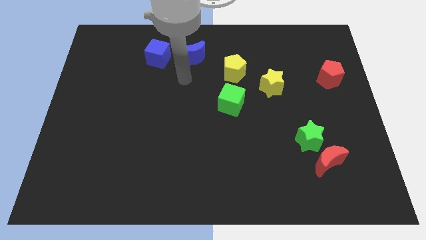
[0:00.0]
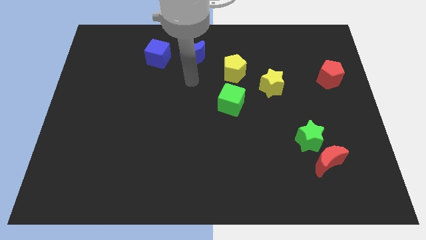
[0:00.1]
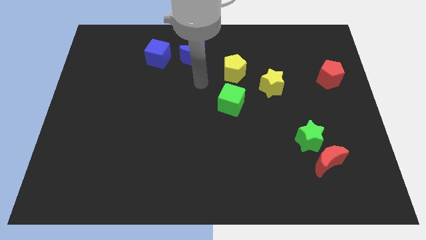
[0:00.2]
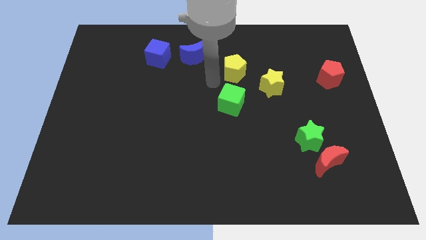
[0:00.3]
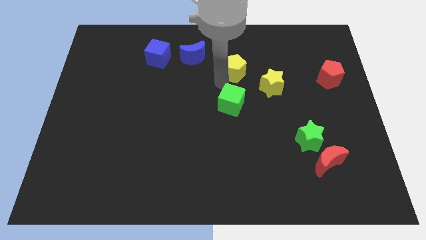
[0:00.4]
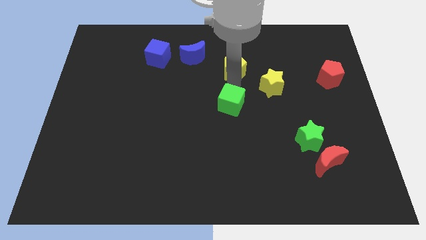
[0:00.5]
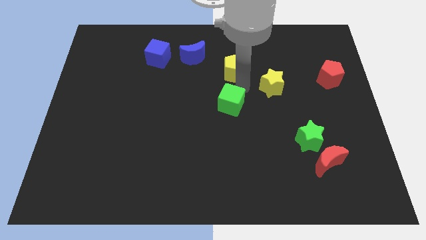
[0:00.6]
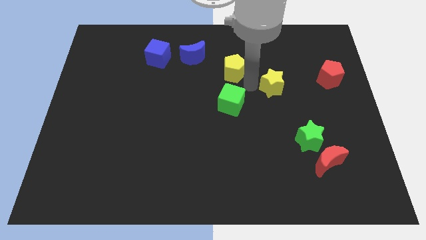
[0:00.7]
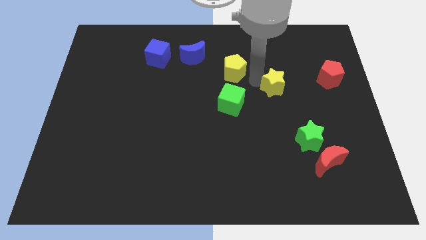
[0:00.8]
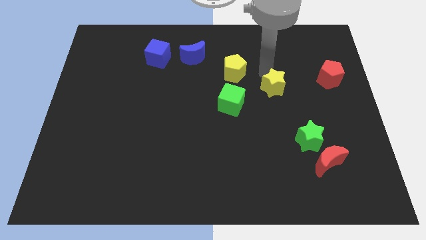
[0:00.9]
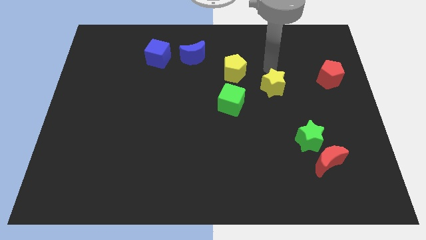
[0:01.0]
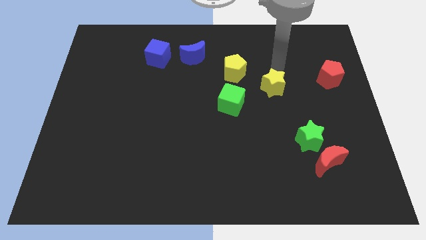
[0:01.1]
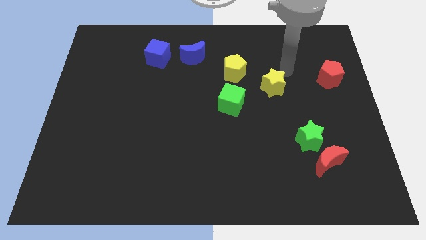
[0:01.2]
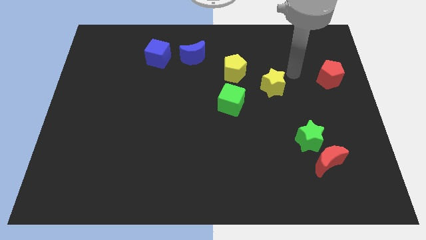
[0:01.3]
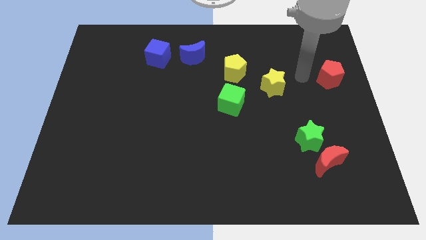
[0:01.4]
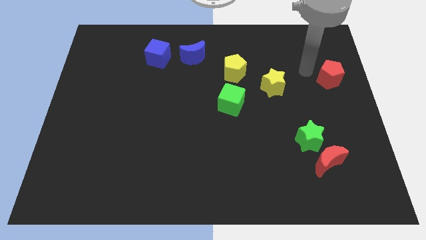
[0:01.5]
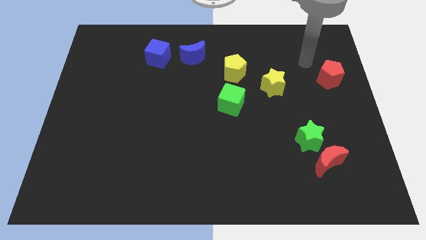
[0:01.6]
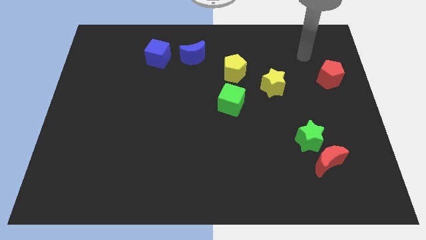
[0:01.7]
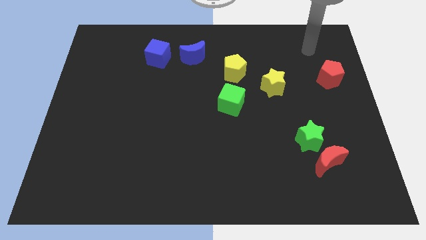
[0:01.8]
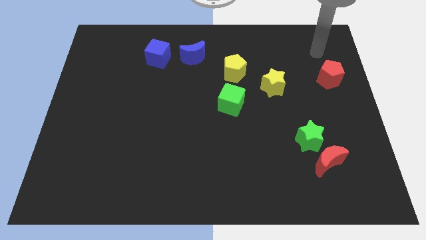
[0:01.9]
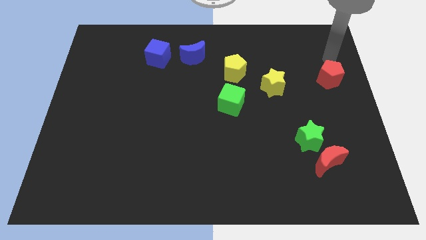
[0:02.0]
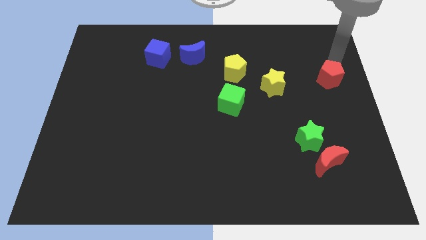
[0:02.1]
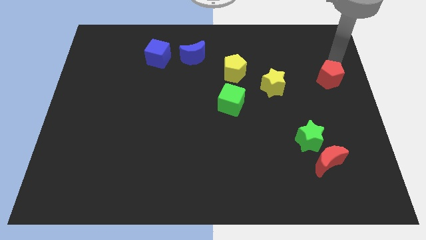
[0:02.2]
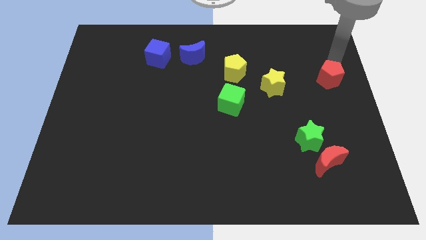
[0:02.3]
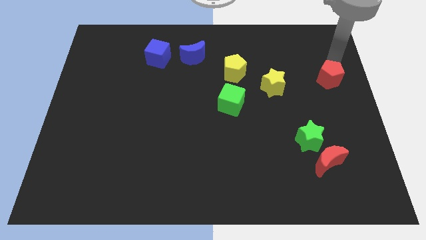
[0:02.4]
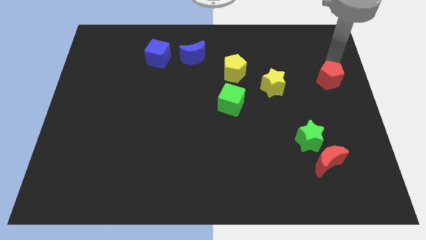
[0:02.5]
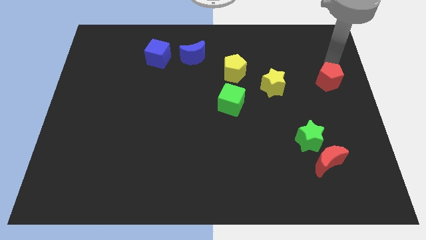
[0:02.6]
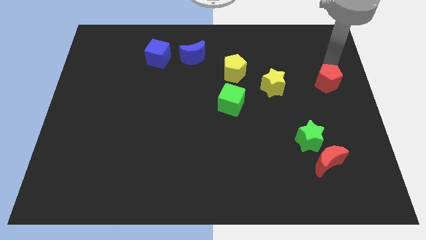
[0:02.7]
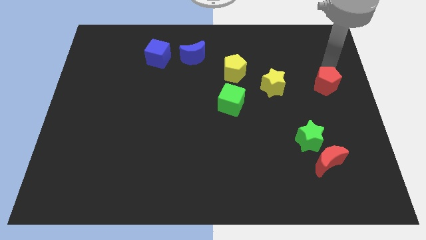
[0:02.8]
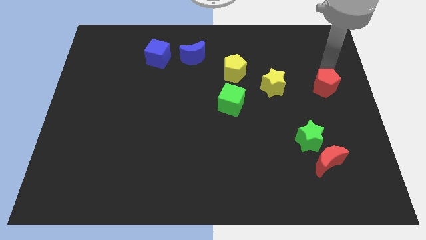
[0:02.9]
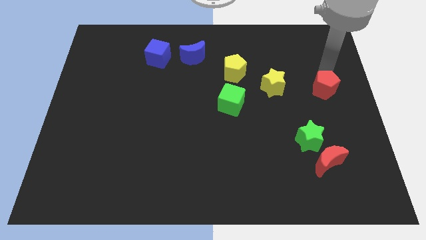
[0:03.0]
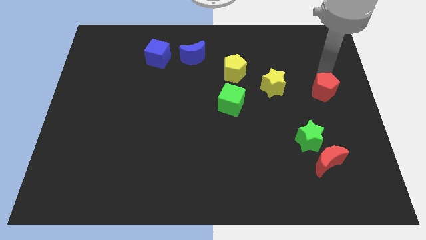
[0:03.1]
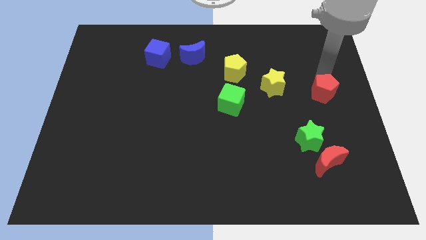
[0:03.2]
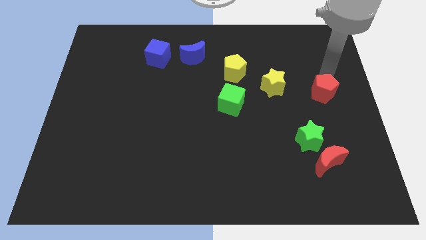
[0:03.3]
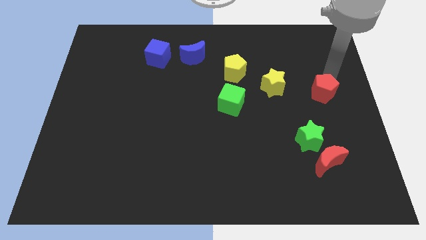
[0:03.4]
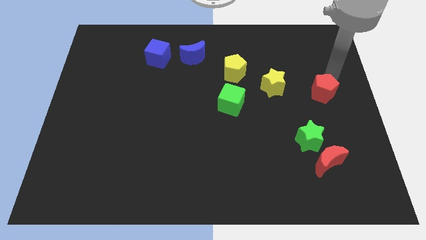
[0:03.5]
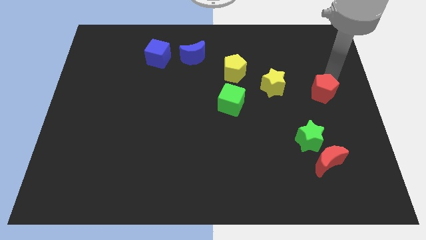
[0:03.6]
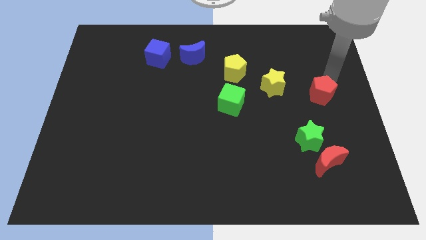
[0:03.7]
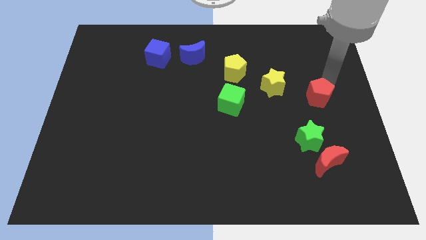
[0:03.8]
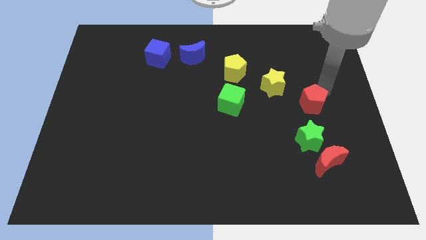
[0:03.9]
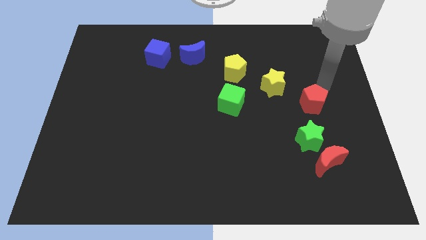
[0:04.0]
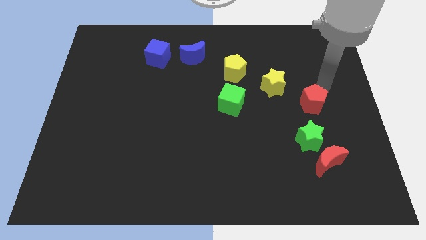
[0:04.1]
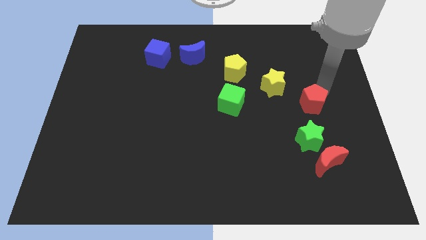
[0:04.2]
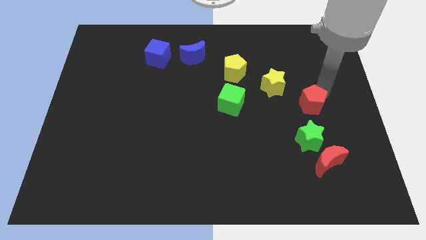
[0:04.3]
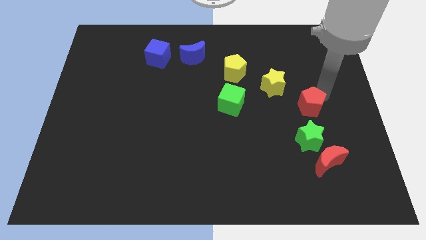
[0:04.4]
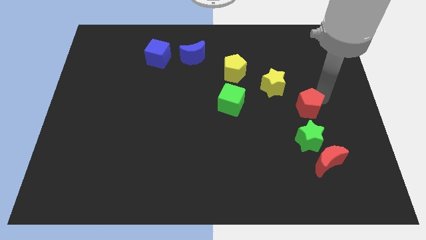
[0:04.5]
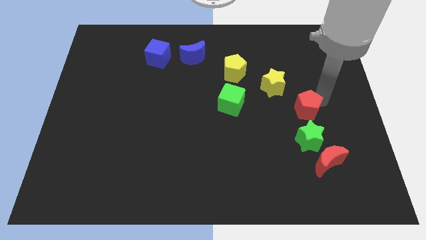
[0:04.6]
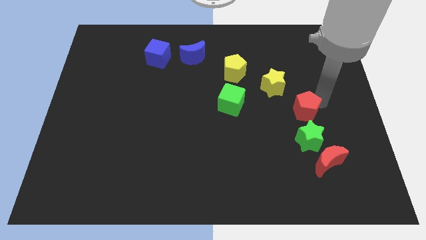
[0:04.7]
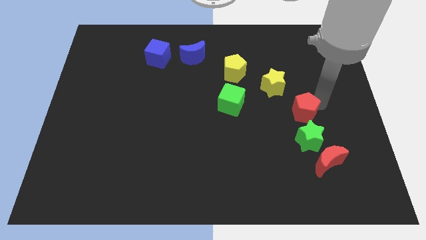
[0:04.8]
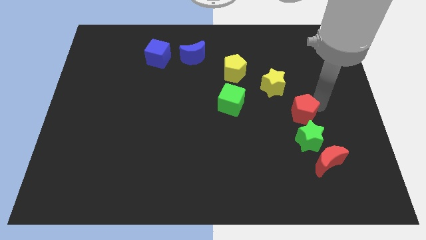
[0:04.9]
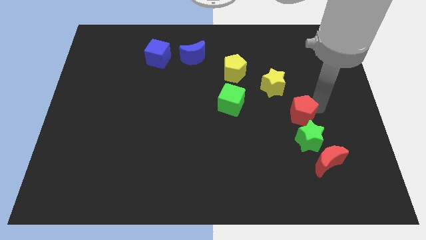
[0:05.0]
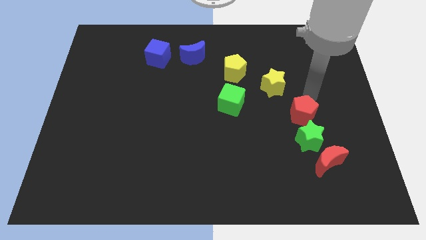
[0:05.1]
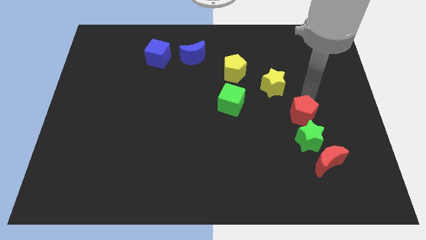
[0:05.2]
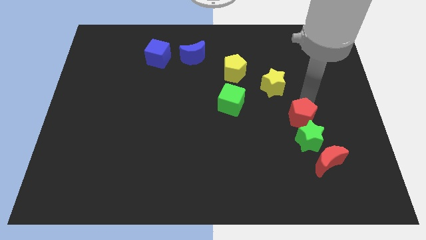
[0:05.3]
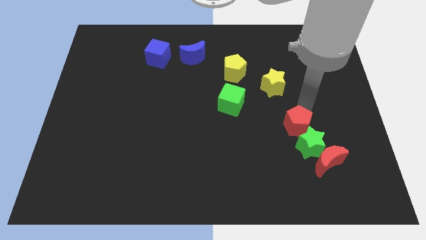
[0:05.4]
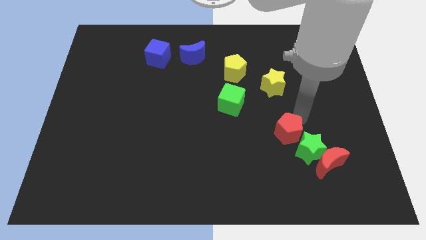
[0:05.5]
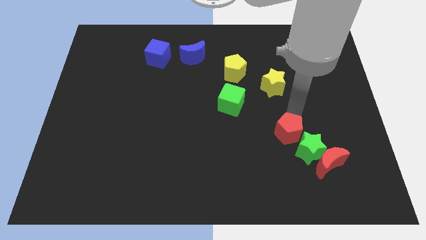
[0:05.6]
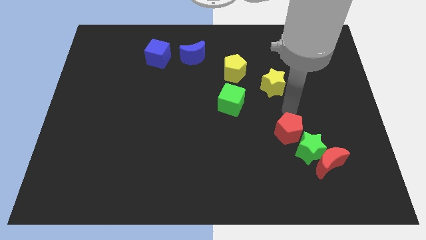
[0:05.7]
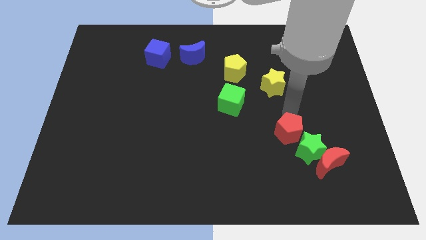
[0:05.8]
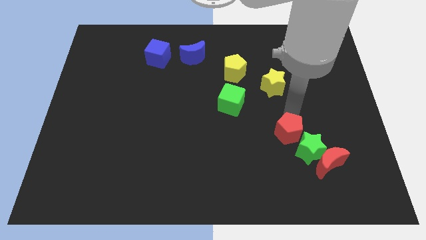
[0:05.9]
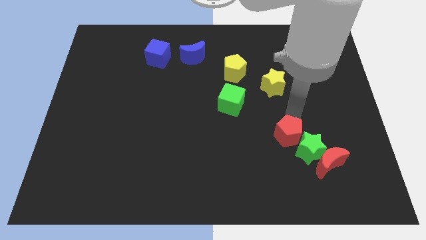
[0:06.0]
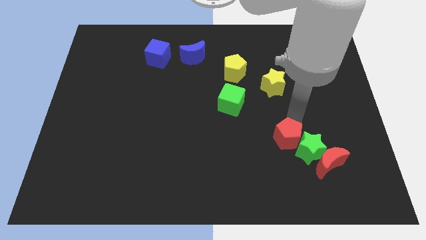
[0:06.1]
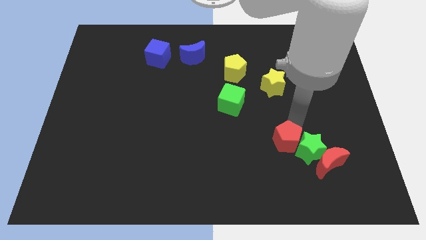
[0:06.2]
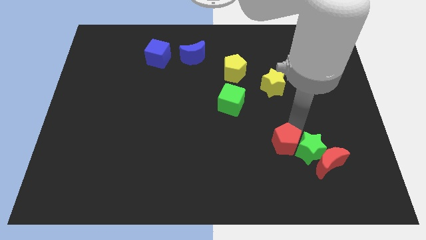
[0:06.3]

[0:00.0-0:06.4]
move the red pentagon to the bottom left of the green star

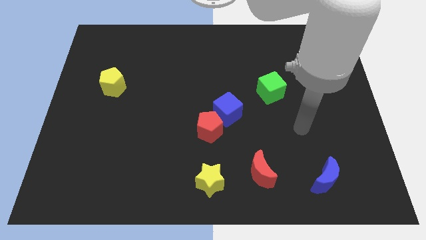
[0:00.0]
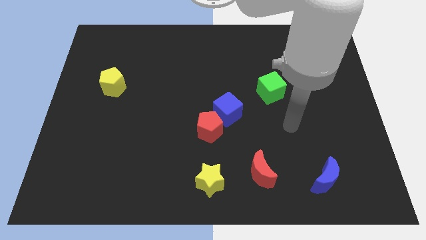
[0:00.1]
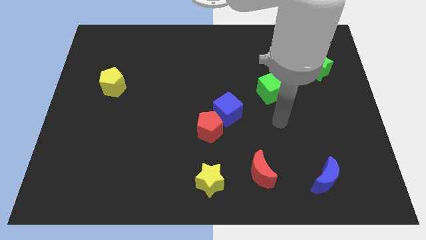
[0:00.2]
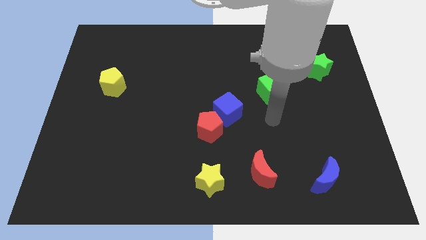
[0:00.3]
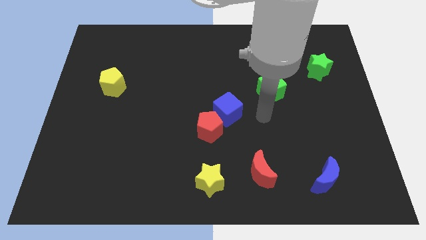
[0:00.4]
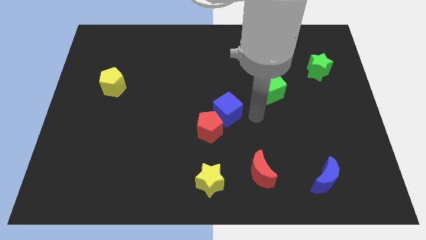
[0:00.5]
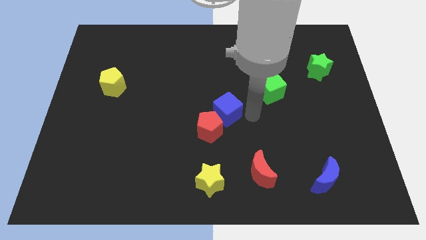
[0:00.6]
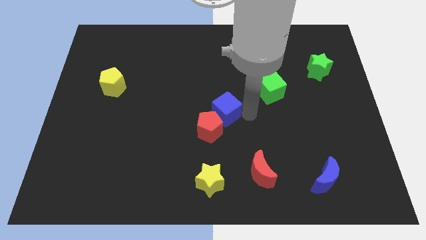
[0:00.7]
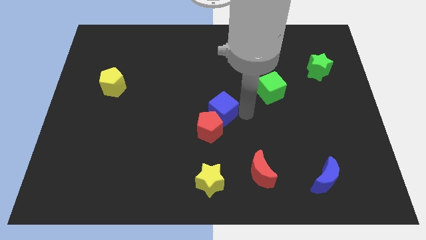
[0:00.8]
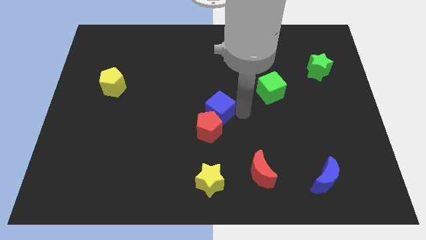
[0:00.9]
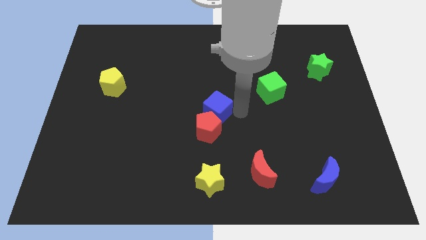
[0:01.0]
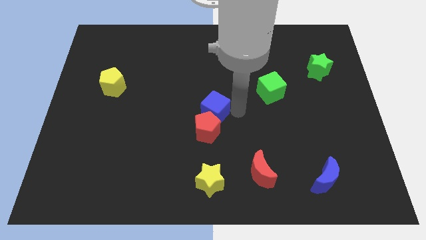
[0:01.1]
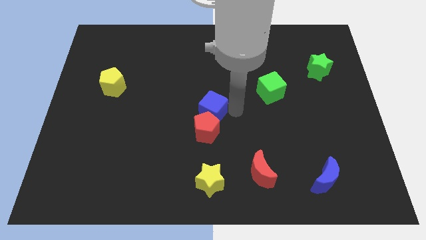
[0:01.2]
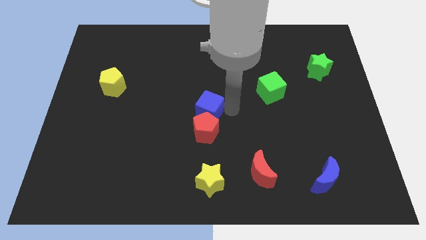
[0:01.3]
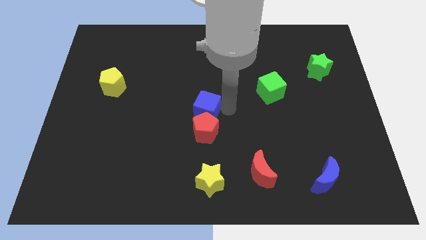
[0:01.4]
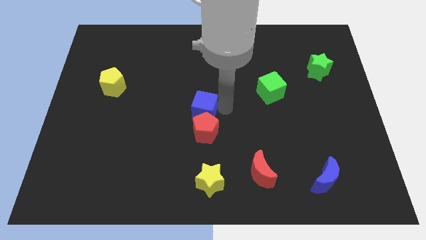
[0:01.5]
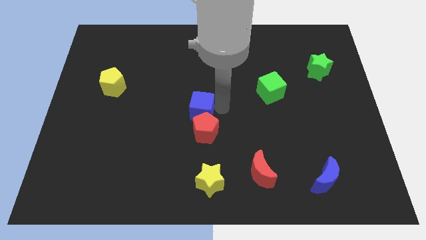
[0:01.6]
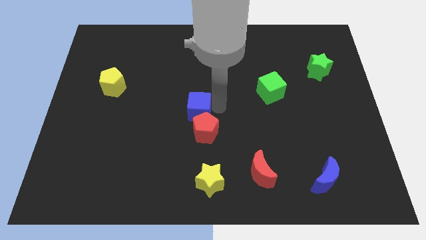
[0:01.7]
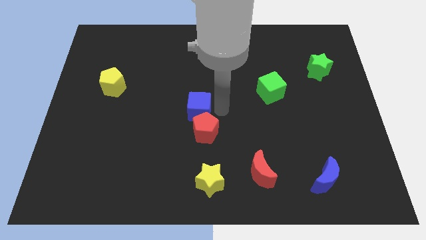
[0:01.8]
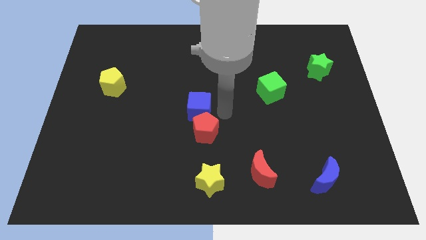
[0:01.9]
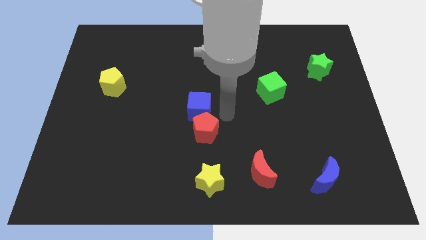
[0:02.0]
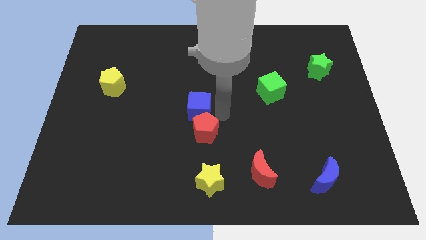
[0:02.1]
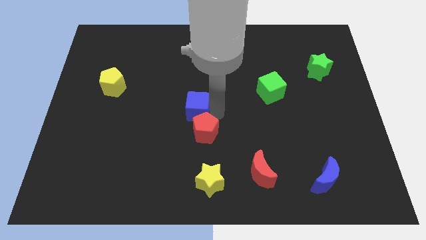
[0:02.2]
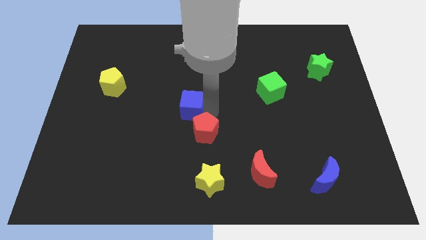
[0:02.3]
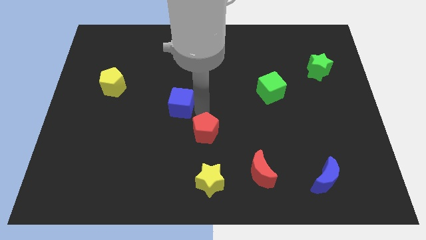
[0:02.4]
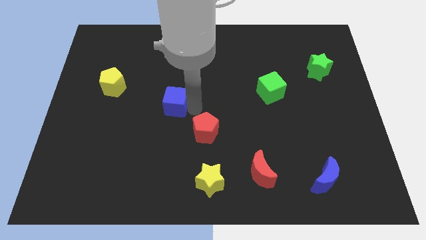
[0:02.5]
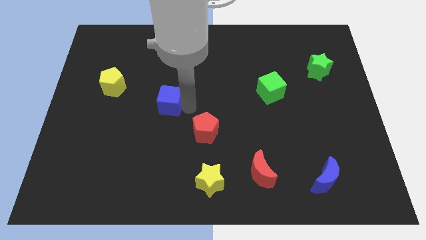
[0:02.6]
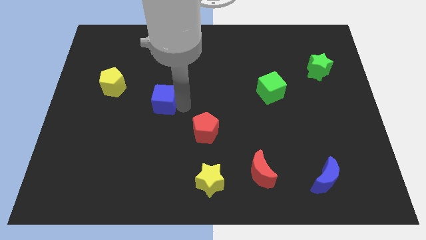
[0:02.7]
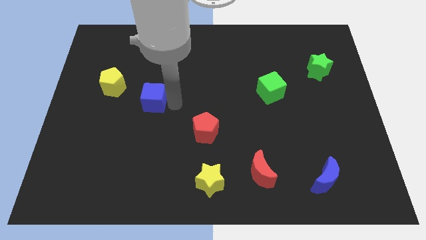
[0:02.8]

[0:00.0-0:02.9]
slide the blue cube to the bottom right of the yellow pentagon
